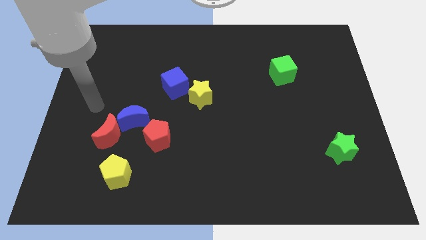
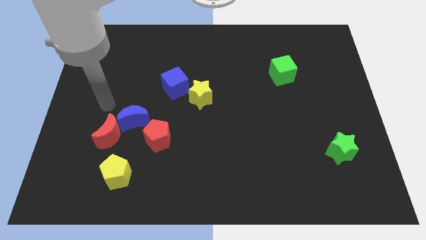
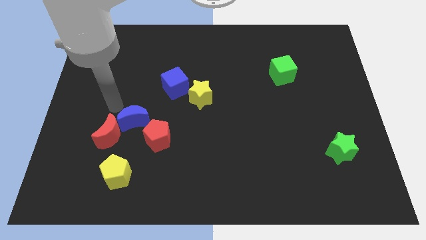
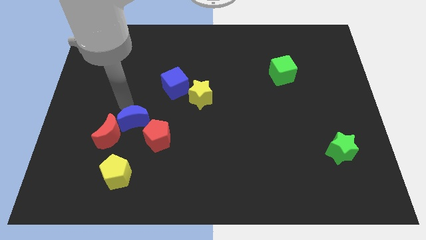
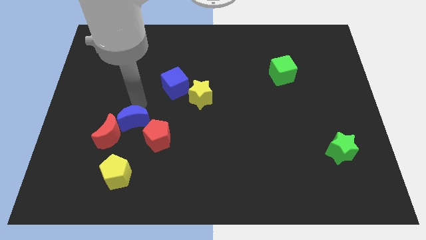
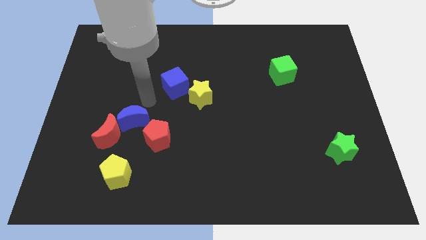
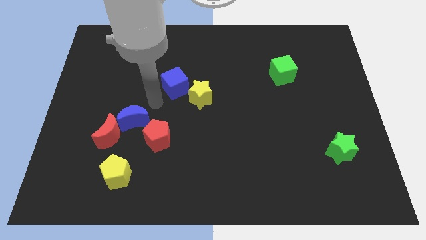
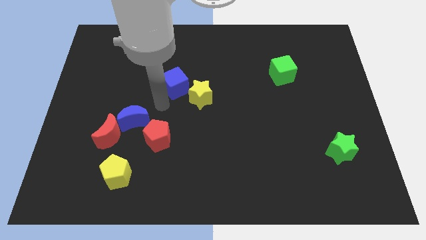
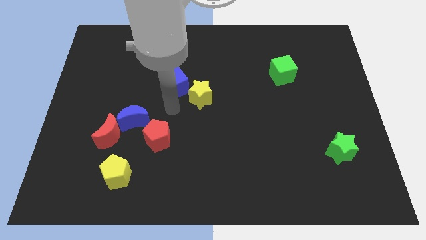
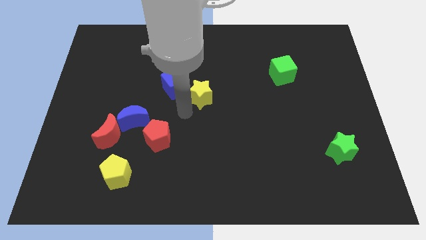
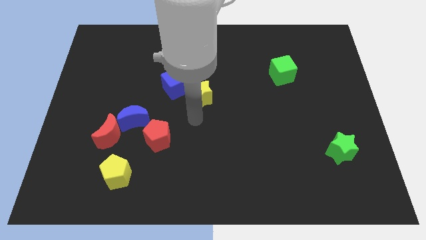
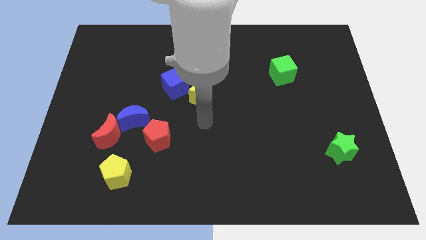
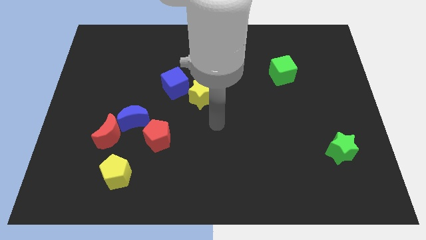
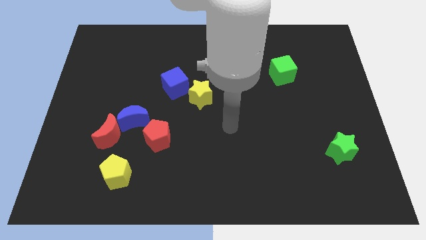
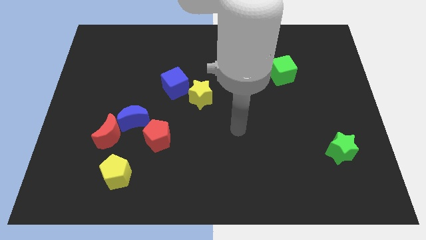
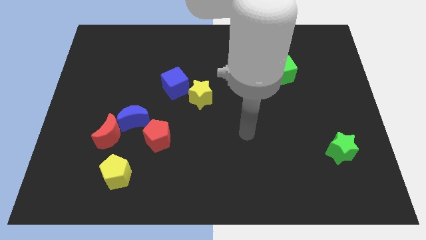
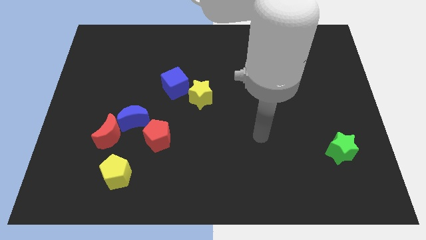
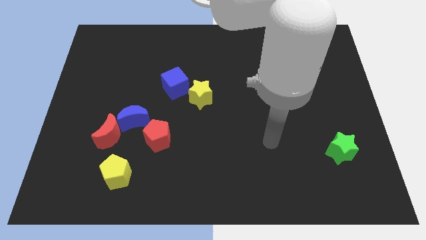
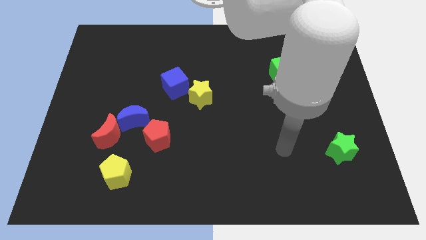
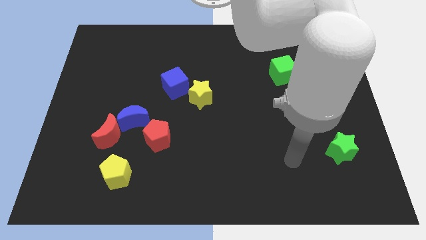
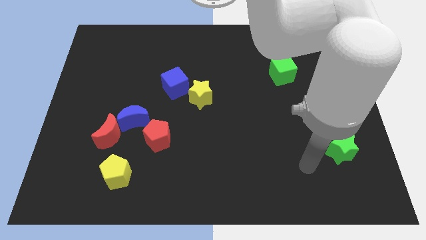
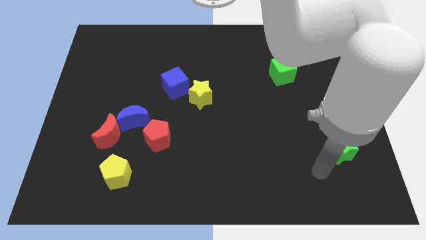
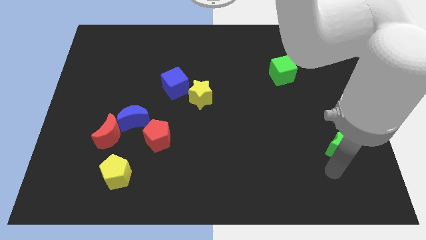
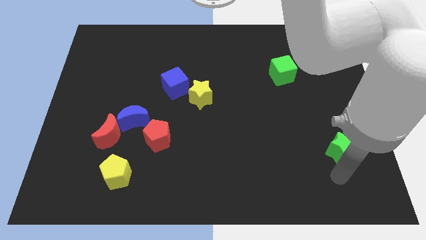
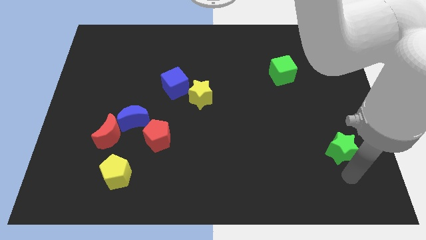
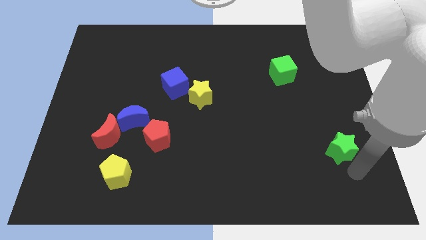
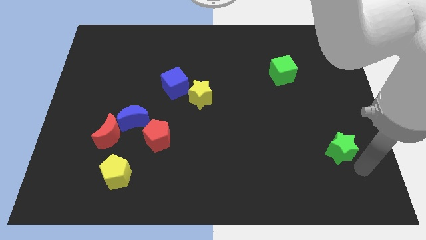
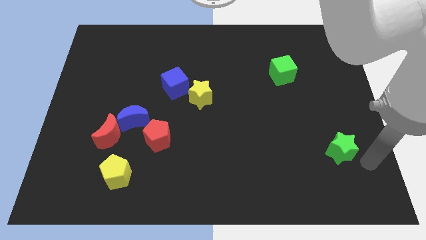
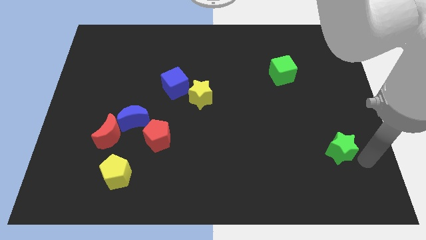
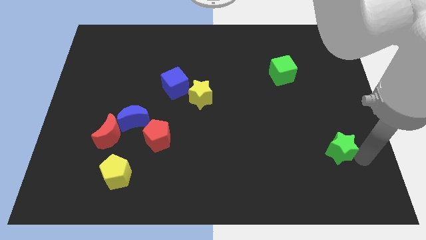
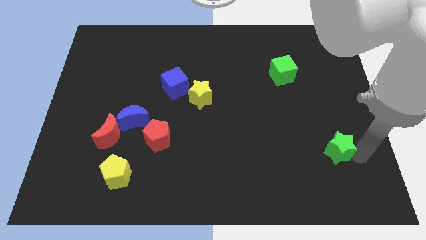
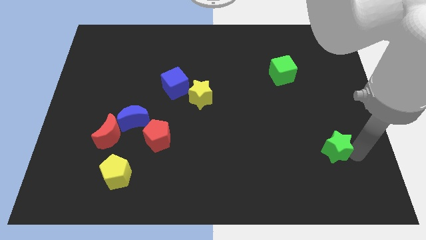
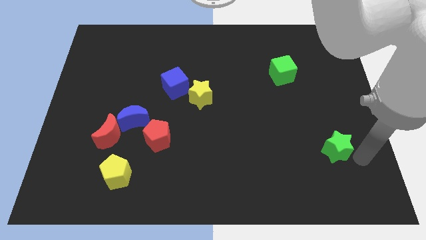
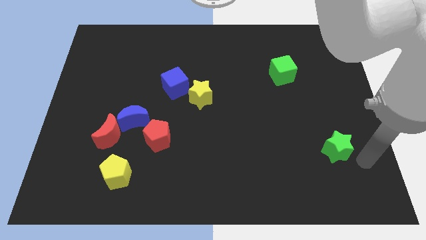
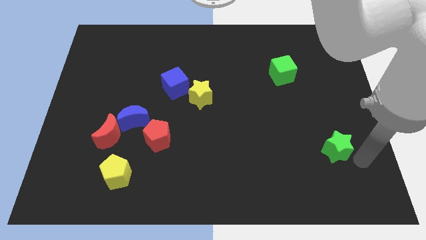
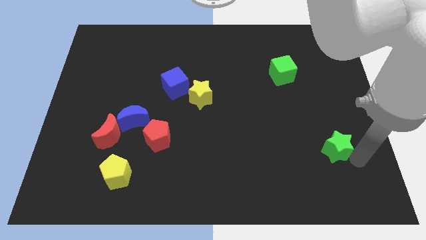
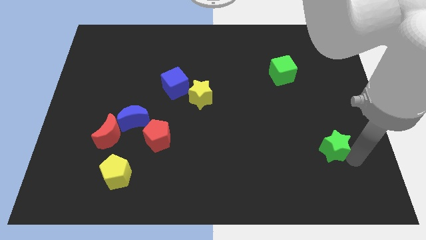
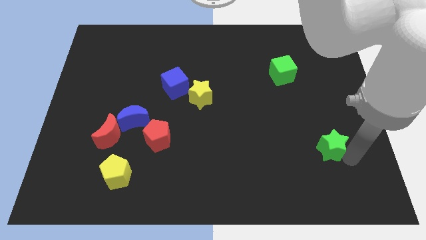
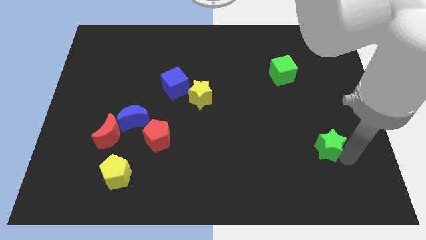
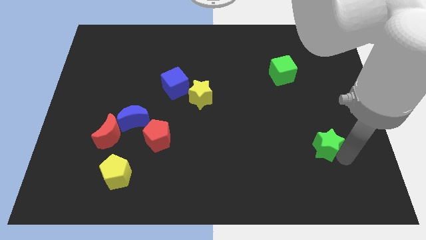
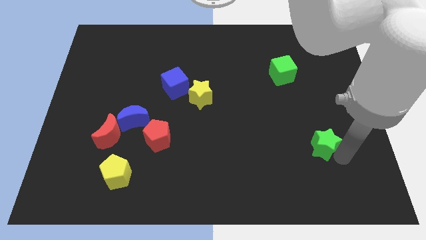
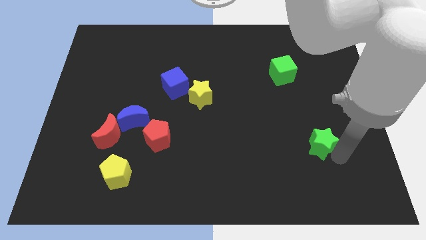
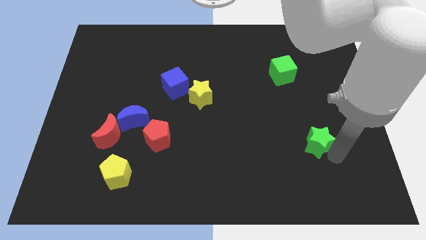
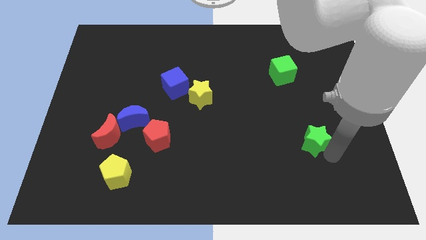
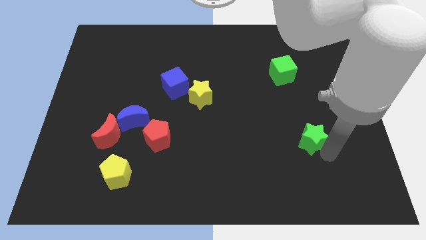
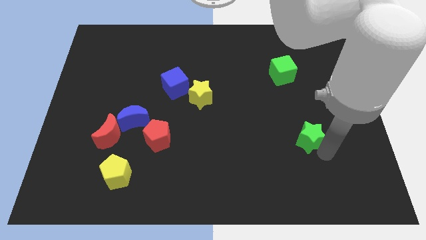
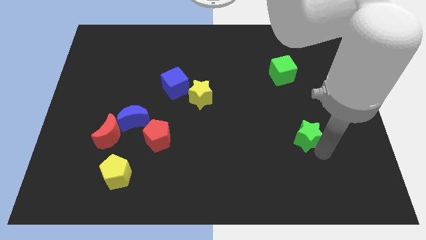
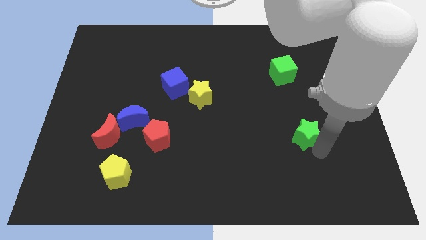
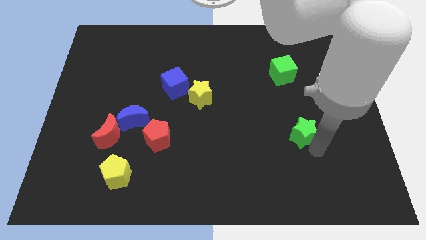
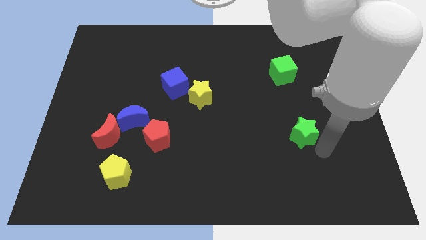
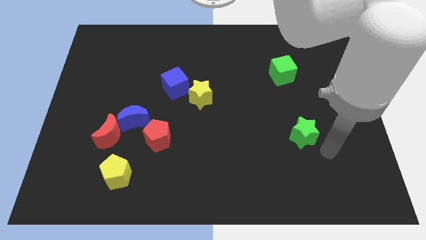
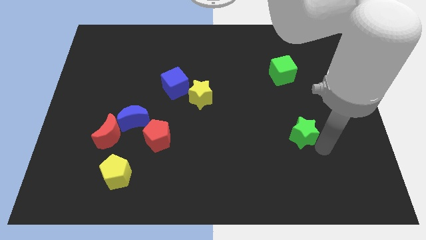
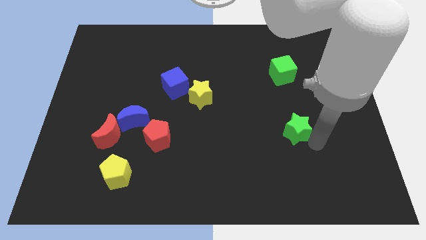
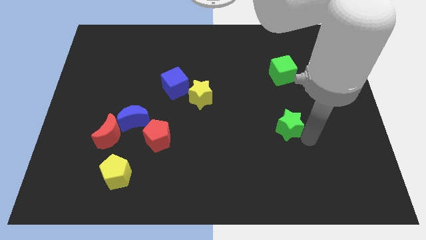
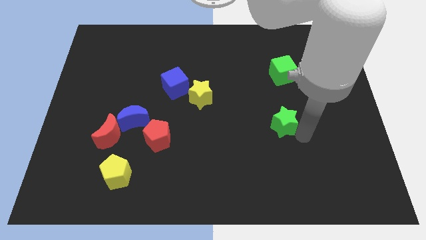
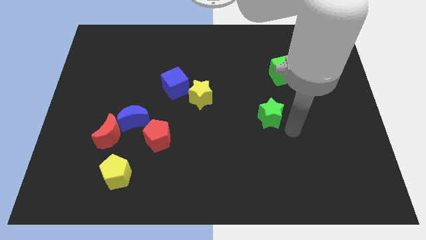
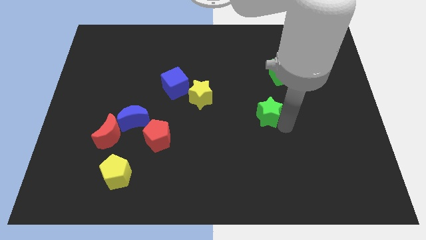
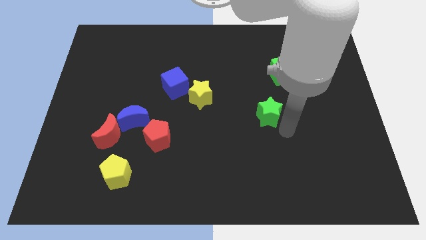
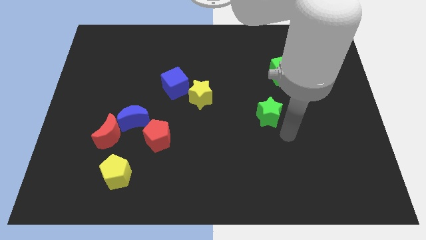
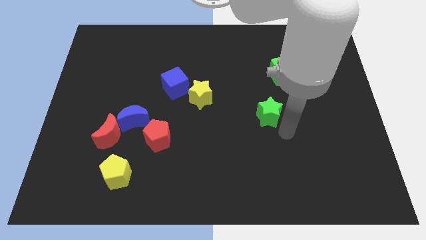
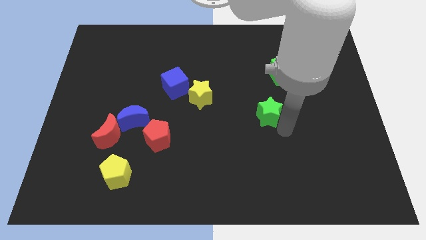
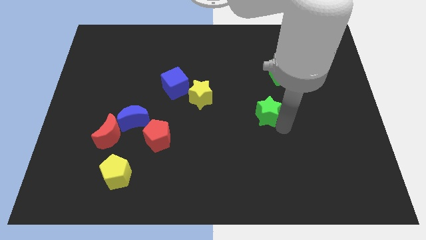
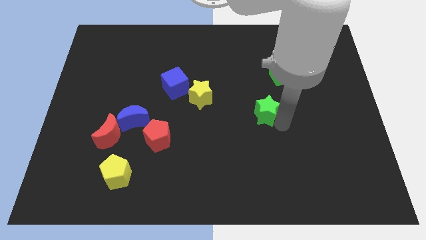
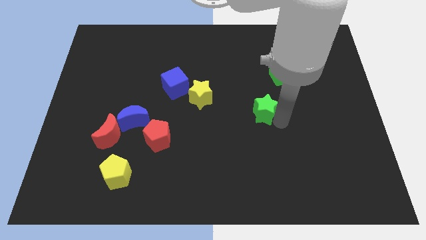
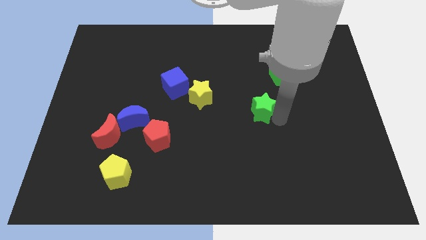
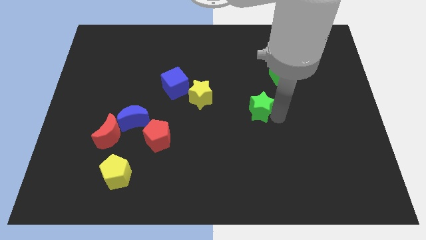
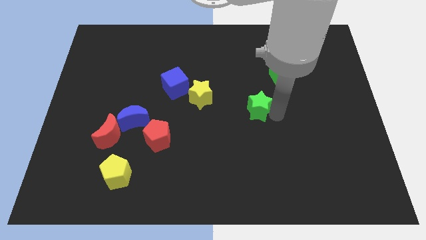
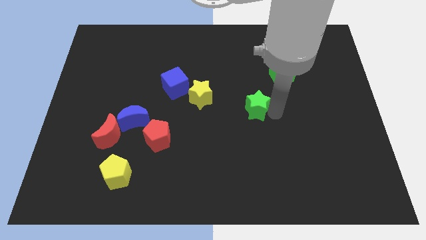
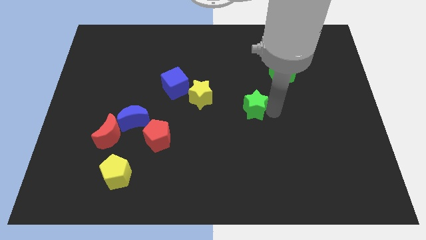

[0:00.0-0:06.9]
move the green star upwards and to the left diagonally

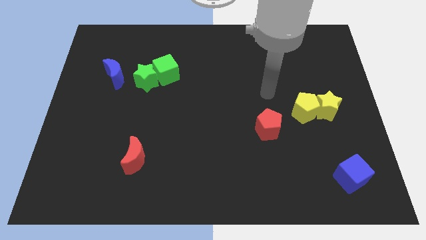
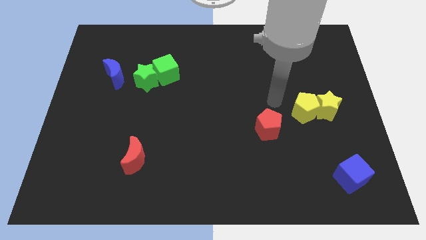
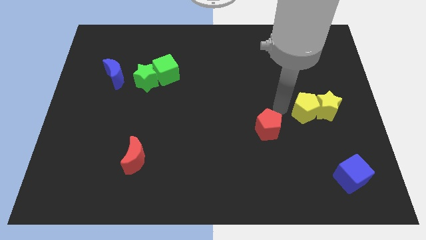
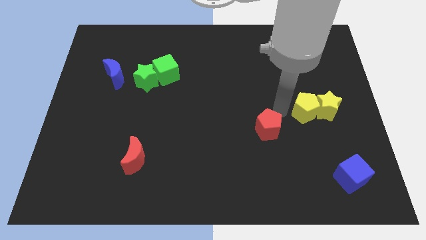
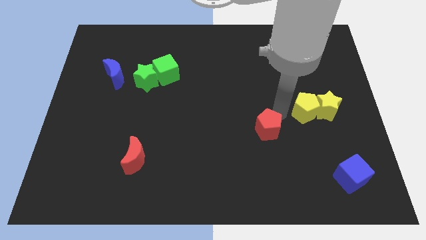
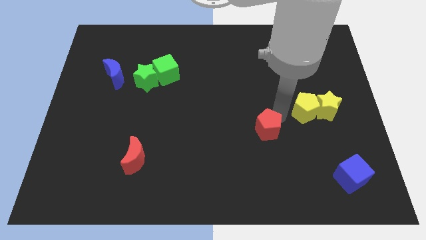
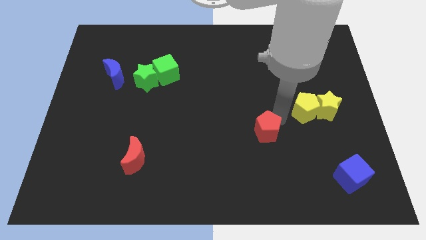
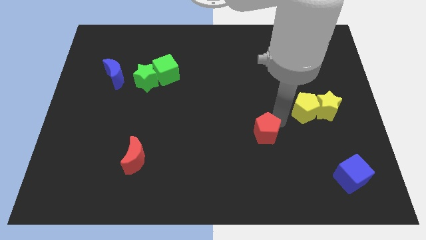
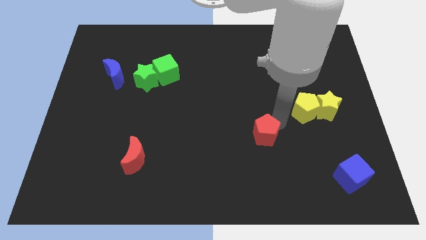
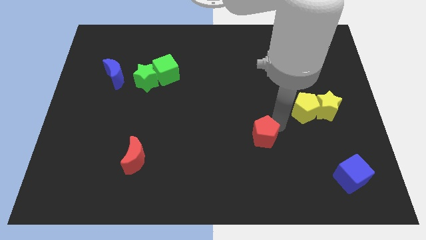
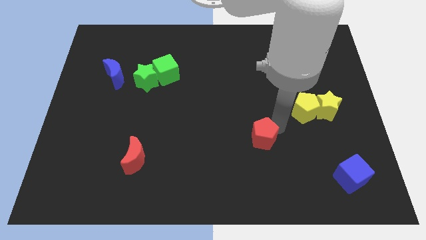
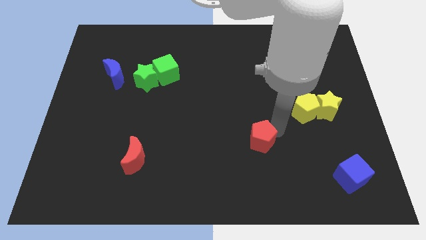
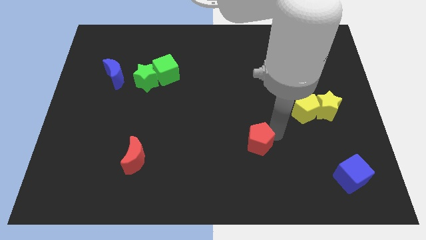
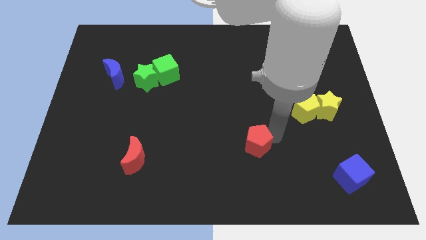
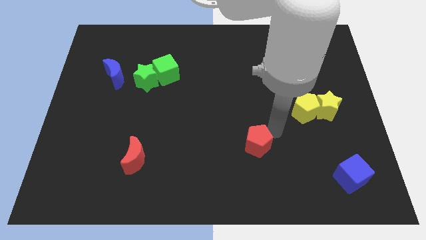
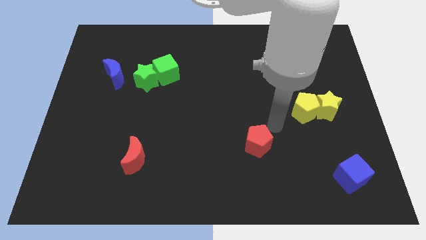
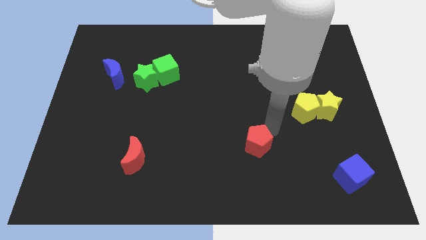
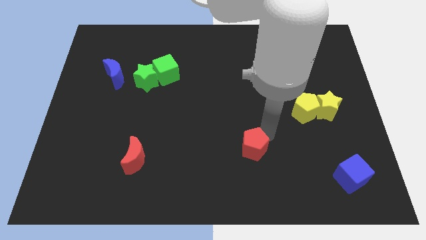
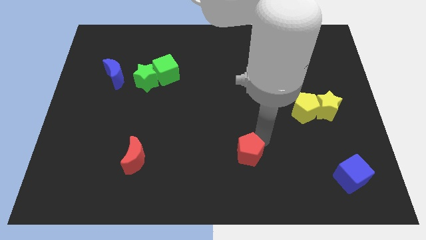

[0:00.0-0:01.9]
move the red pentagon down and left diagonally slightly
